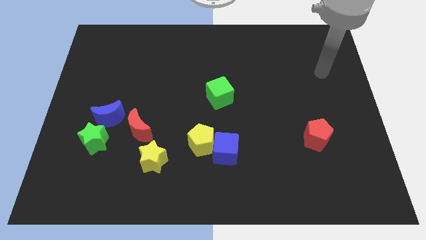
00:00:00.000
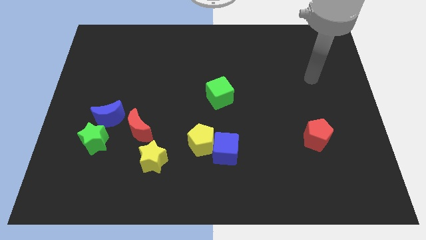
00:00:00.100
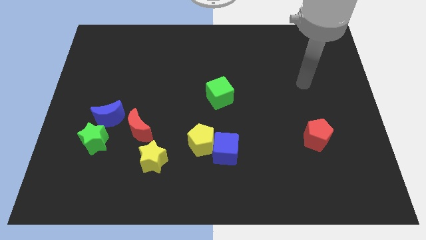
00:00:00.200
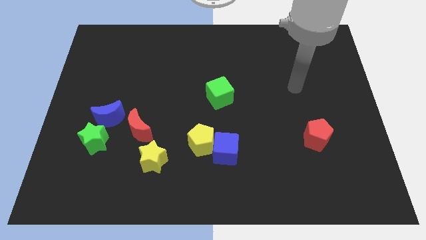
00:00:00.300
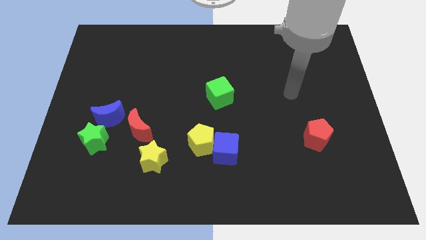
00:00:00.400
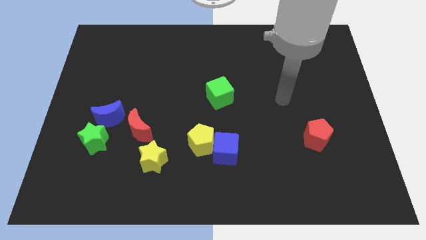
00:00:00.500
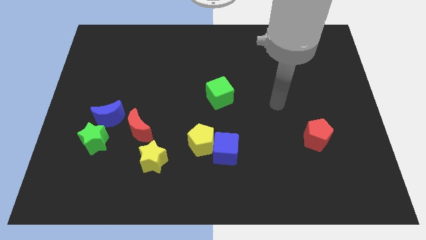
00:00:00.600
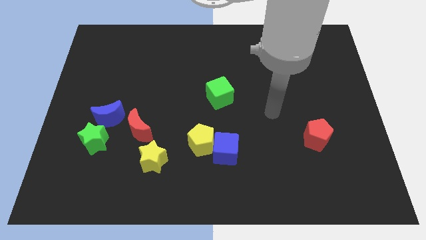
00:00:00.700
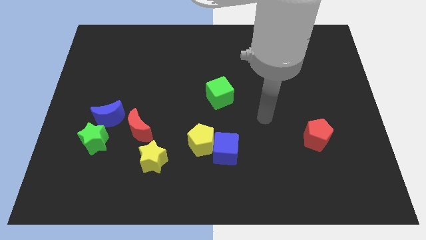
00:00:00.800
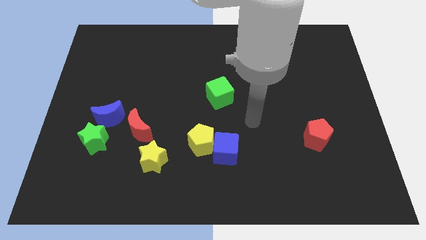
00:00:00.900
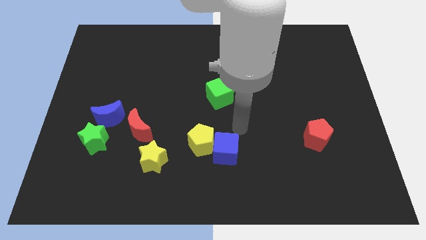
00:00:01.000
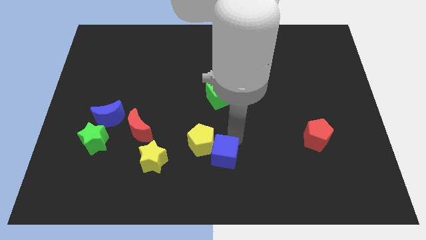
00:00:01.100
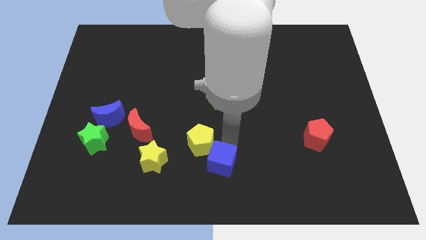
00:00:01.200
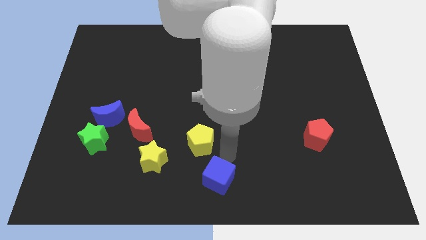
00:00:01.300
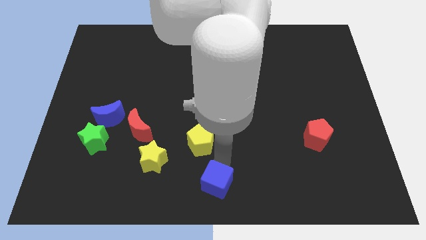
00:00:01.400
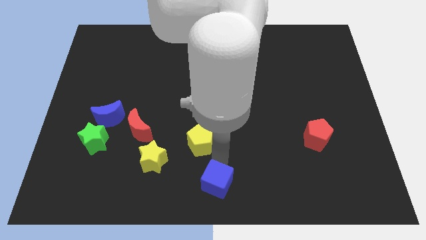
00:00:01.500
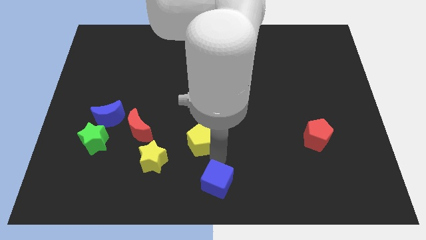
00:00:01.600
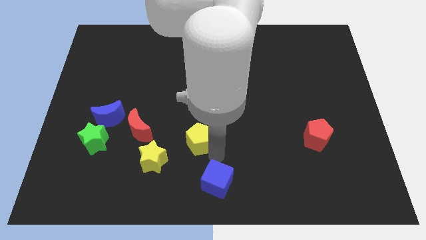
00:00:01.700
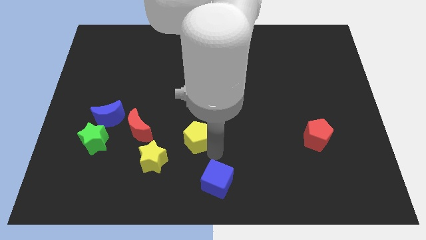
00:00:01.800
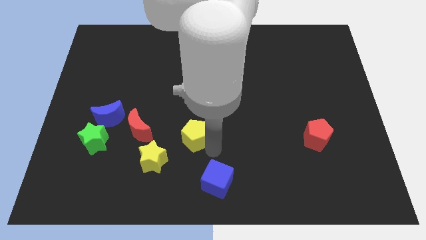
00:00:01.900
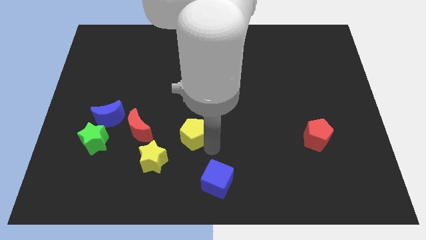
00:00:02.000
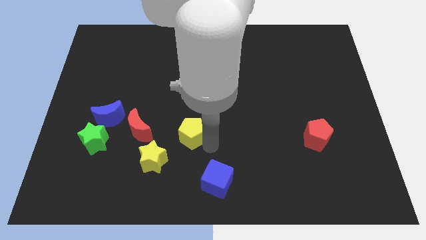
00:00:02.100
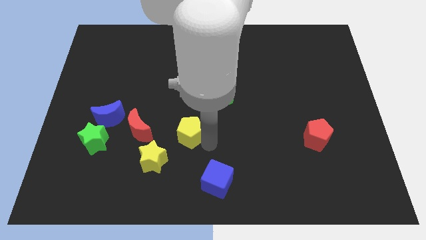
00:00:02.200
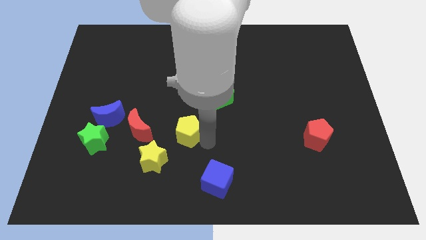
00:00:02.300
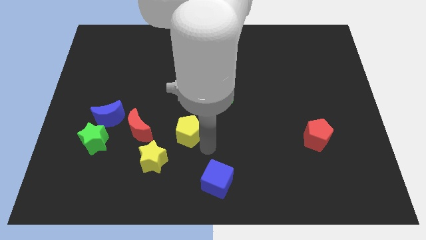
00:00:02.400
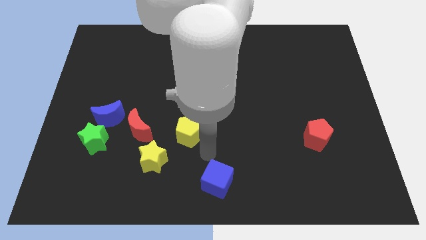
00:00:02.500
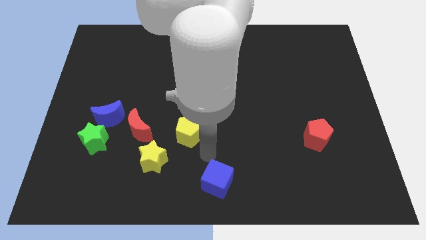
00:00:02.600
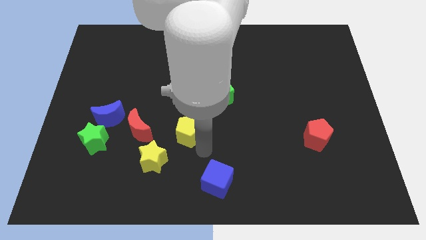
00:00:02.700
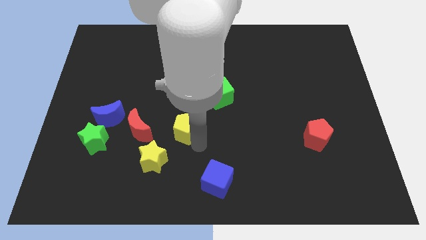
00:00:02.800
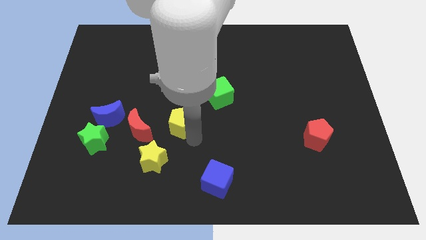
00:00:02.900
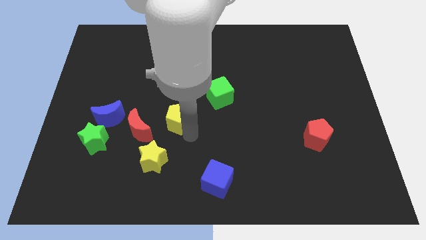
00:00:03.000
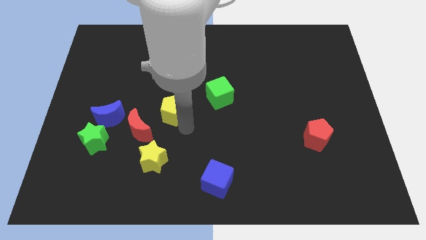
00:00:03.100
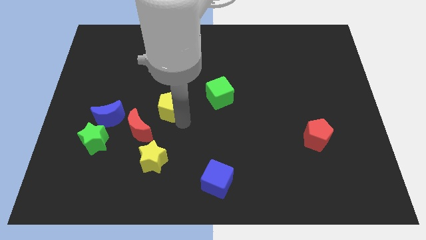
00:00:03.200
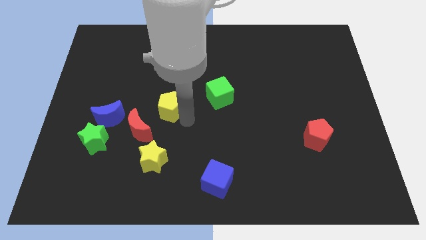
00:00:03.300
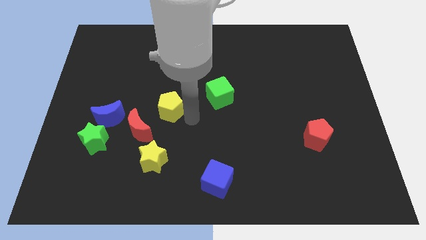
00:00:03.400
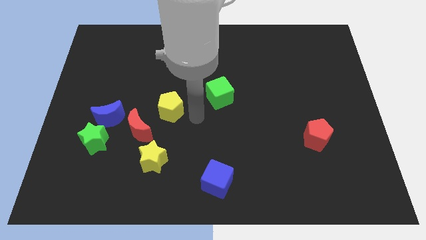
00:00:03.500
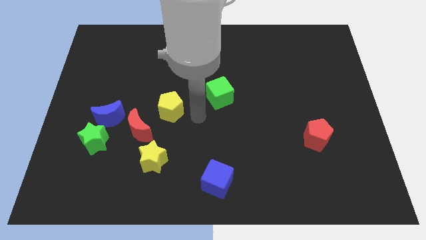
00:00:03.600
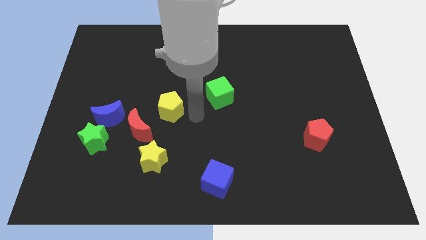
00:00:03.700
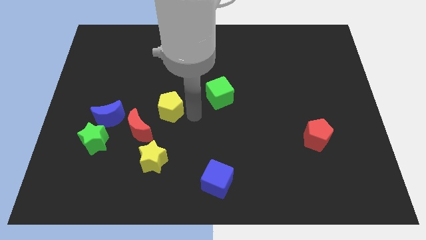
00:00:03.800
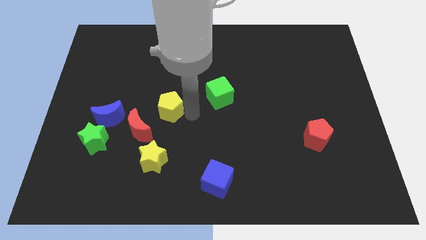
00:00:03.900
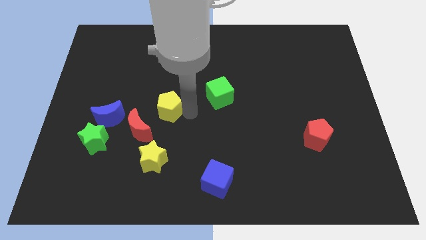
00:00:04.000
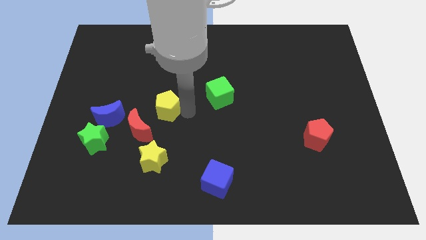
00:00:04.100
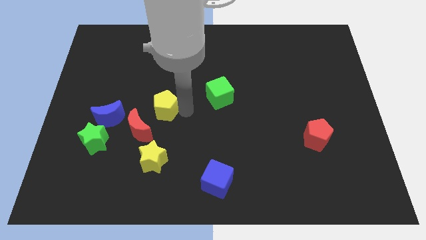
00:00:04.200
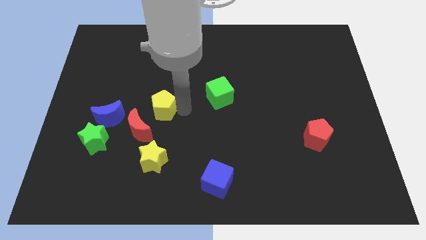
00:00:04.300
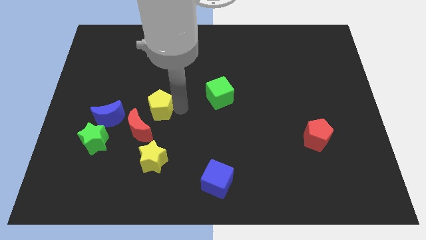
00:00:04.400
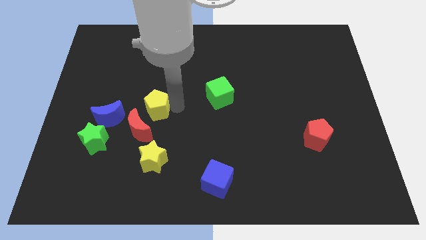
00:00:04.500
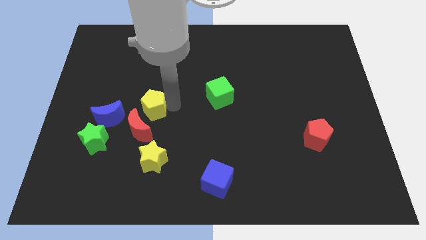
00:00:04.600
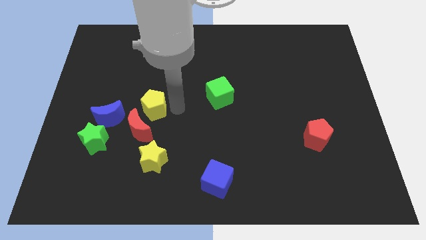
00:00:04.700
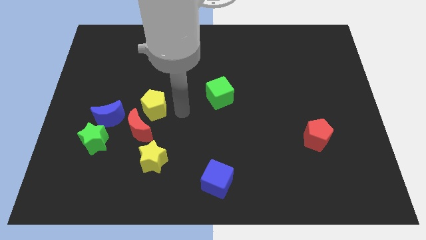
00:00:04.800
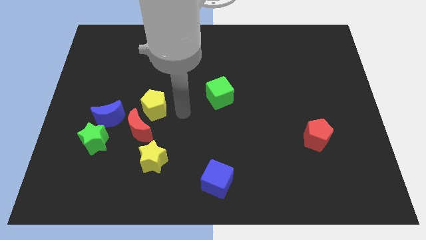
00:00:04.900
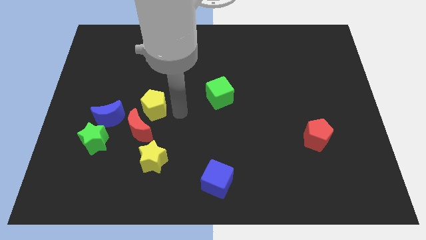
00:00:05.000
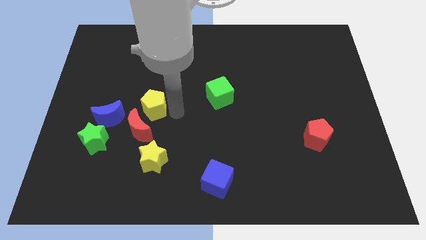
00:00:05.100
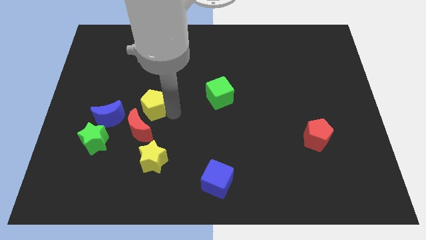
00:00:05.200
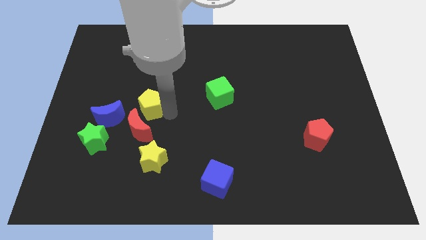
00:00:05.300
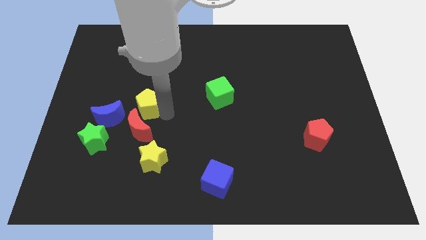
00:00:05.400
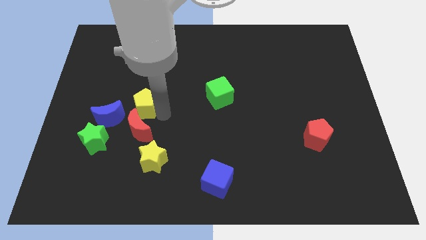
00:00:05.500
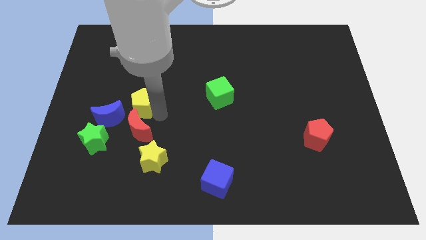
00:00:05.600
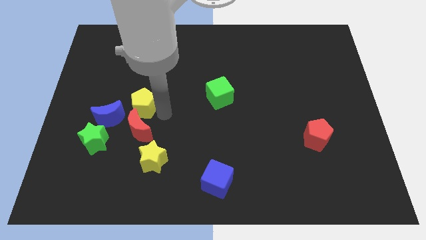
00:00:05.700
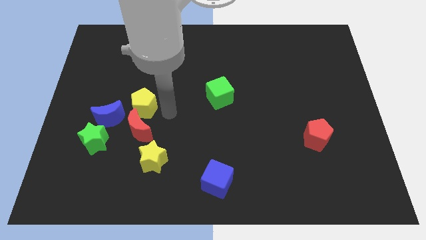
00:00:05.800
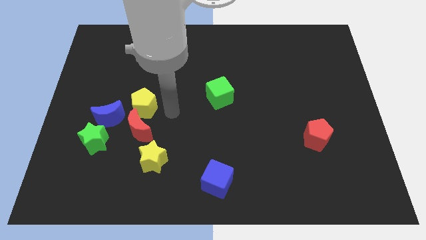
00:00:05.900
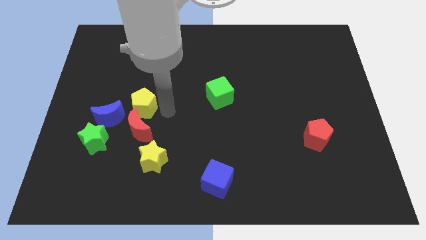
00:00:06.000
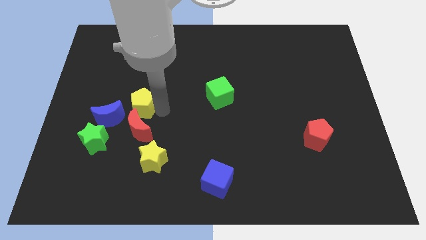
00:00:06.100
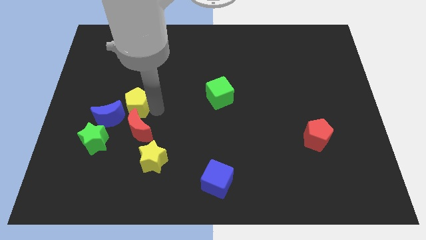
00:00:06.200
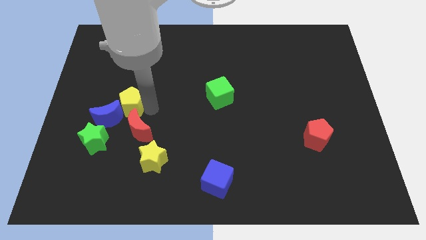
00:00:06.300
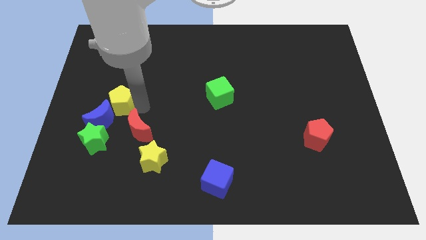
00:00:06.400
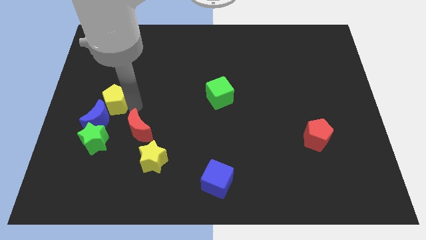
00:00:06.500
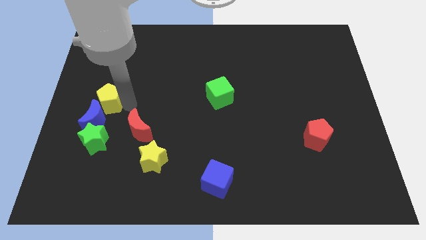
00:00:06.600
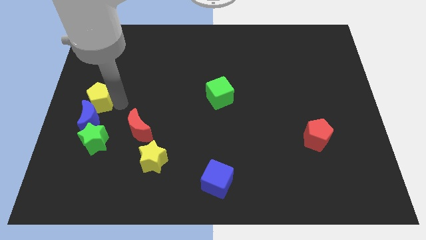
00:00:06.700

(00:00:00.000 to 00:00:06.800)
move the yellow pentagon to the left side

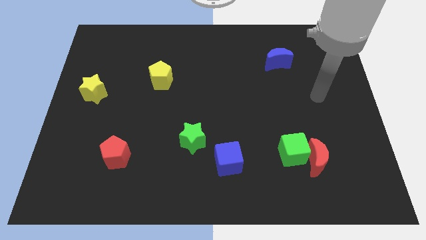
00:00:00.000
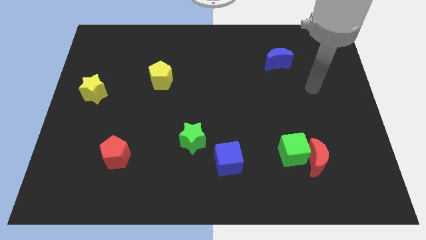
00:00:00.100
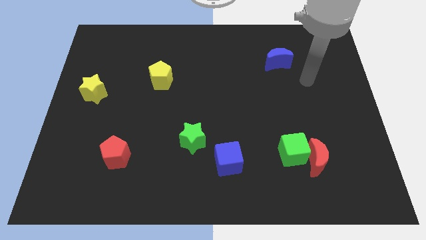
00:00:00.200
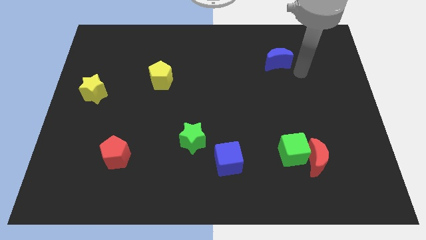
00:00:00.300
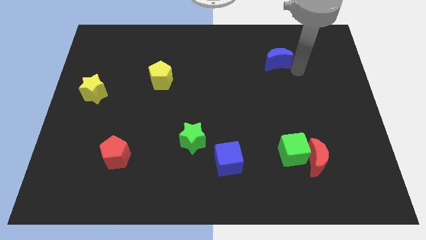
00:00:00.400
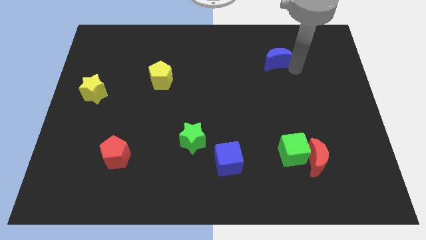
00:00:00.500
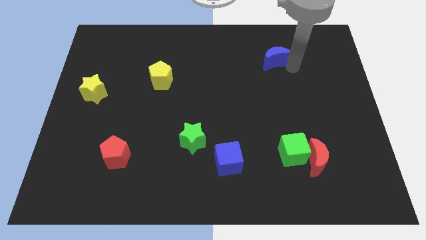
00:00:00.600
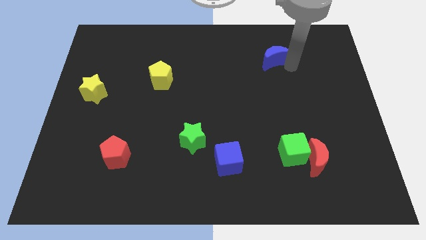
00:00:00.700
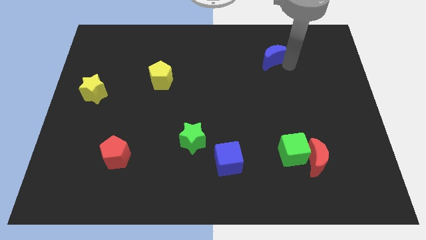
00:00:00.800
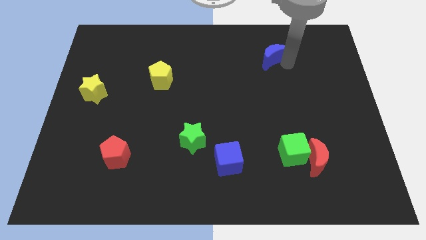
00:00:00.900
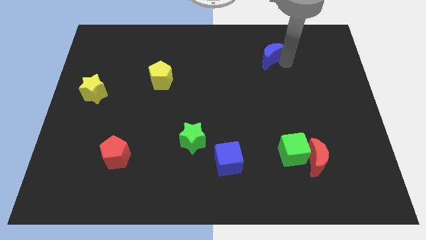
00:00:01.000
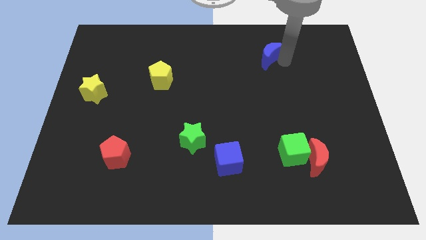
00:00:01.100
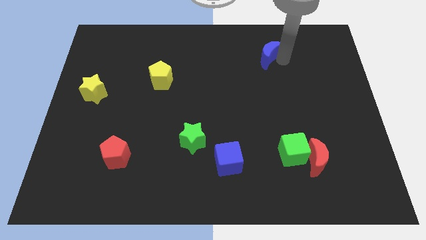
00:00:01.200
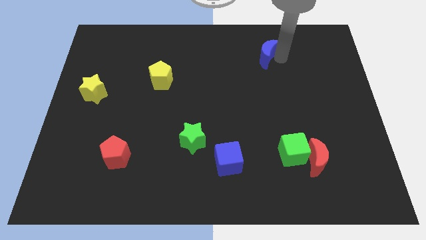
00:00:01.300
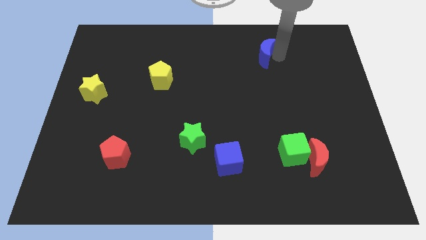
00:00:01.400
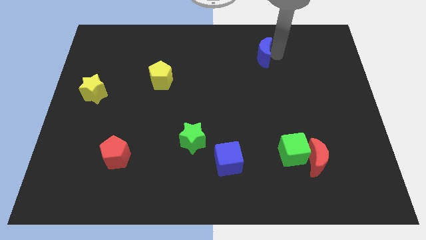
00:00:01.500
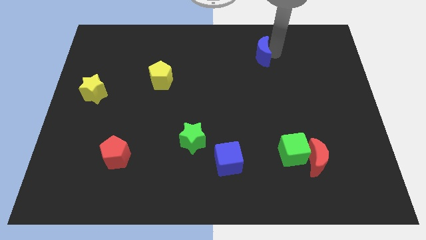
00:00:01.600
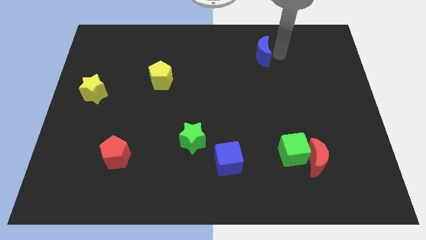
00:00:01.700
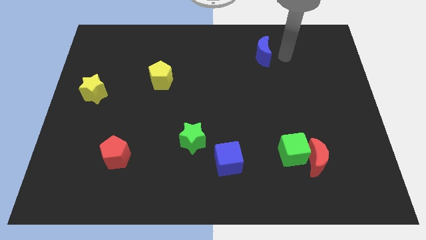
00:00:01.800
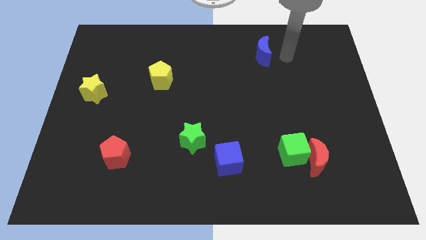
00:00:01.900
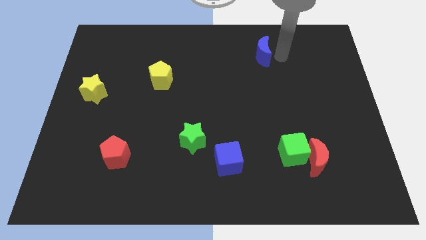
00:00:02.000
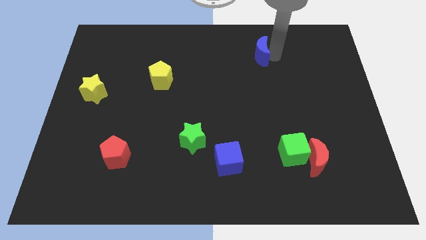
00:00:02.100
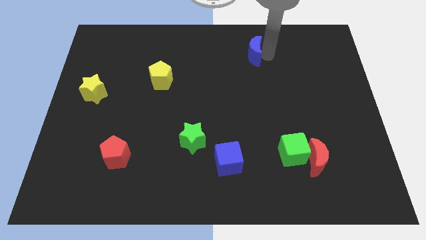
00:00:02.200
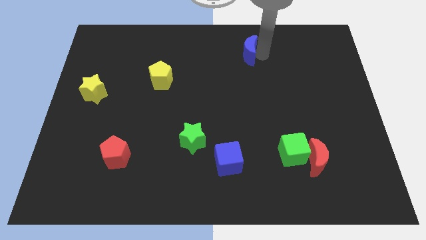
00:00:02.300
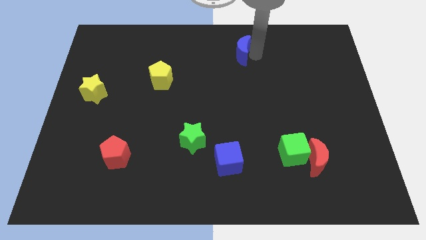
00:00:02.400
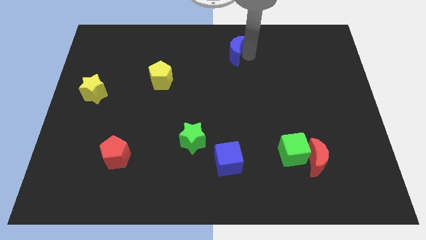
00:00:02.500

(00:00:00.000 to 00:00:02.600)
move the blue moon to the towards your base
